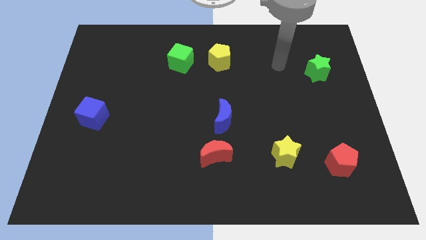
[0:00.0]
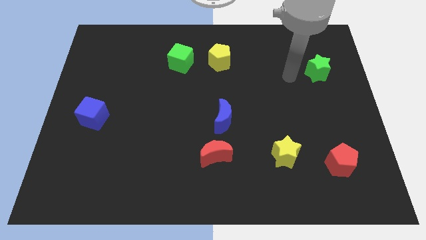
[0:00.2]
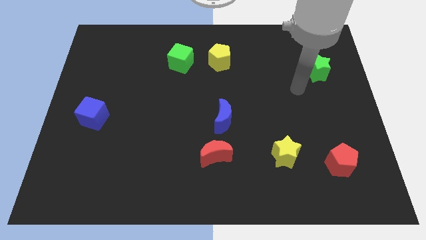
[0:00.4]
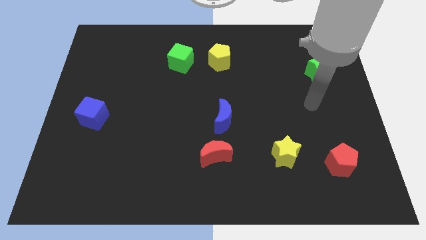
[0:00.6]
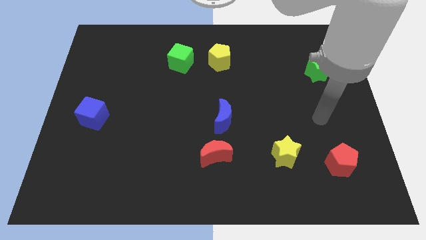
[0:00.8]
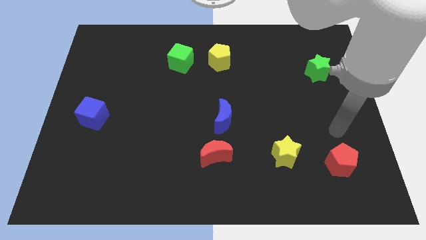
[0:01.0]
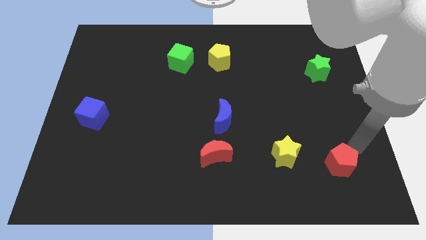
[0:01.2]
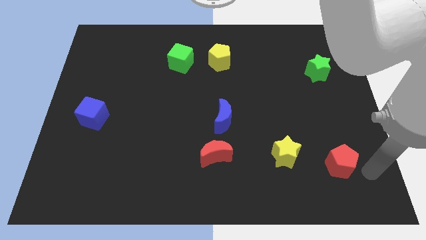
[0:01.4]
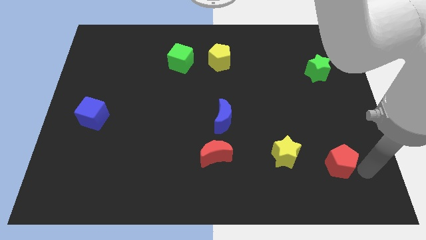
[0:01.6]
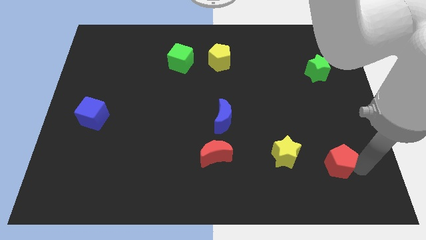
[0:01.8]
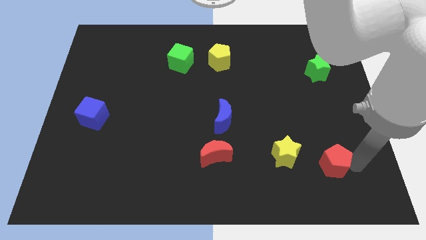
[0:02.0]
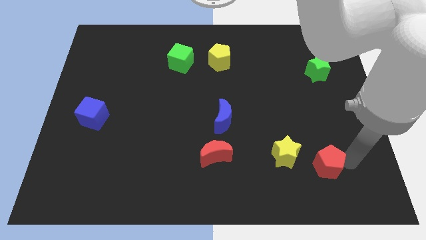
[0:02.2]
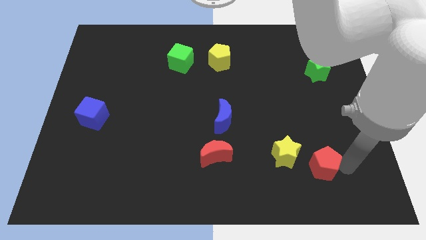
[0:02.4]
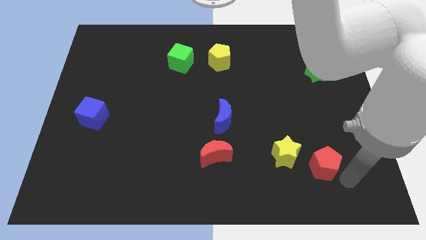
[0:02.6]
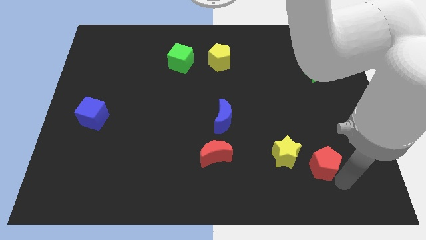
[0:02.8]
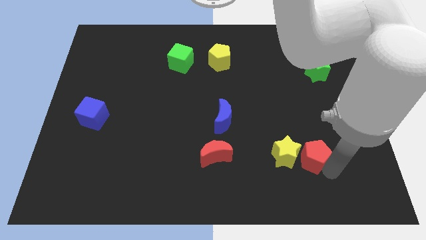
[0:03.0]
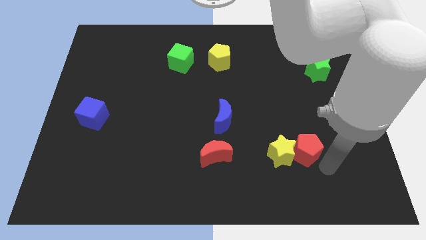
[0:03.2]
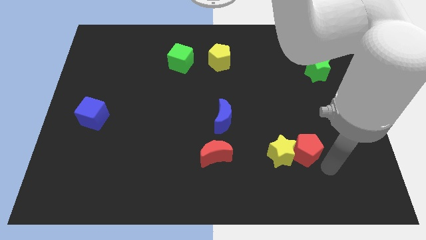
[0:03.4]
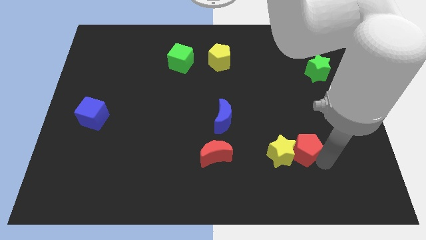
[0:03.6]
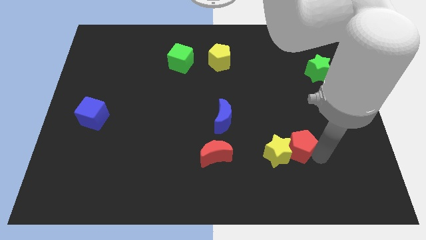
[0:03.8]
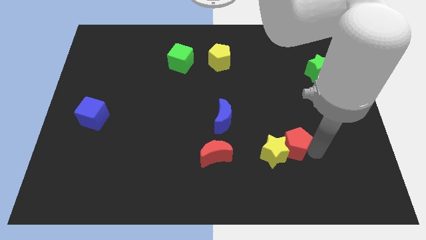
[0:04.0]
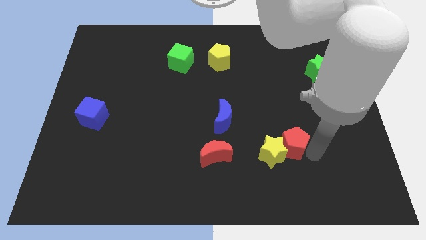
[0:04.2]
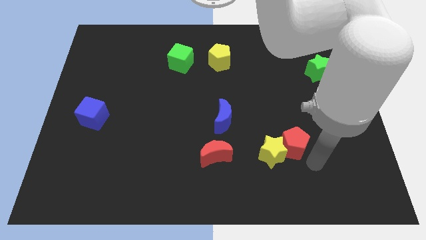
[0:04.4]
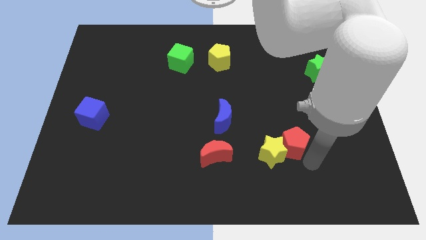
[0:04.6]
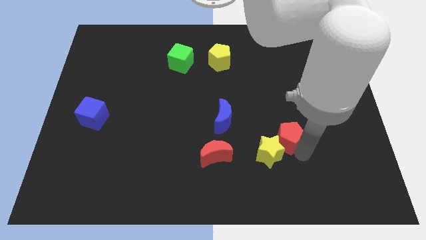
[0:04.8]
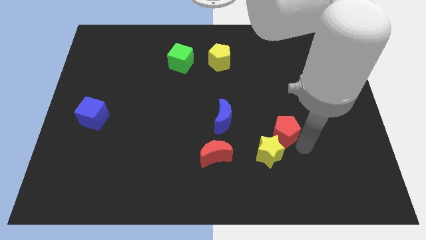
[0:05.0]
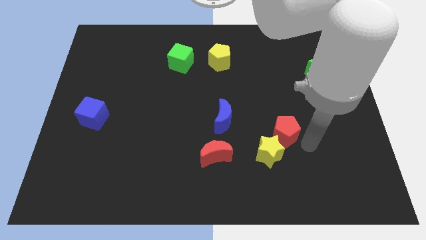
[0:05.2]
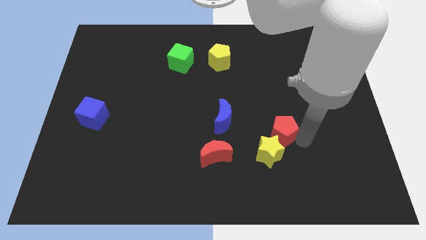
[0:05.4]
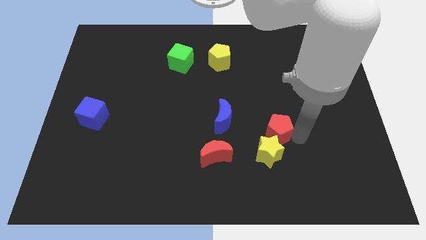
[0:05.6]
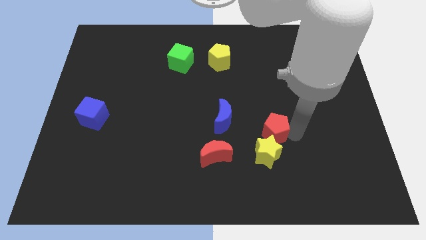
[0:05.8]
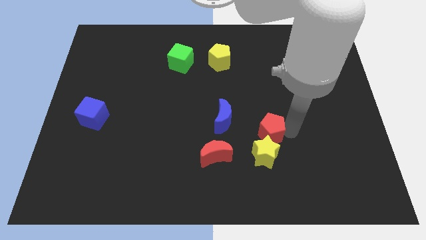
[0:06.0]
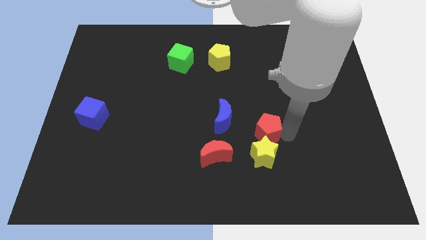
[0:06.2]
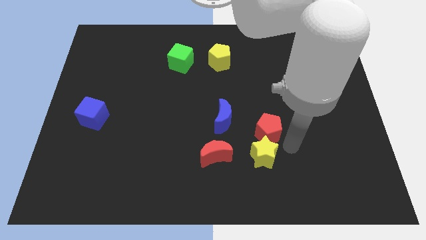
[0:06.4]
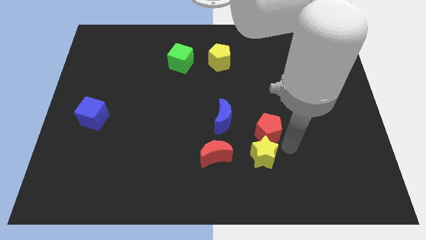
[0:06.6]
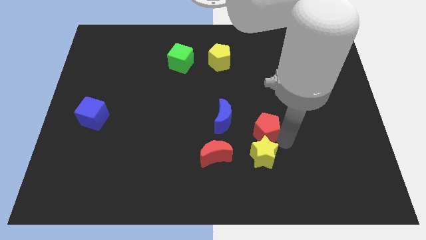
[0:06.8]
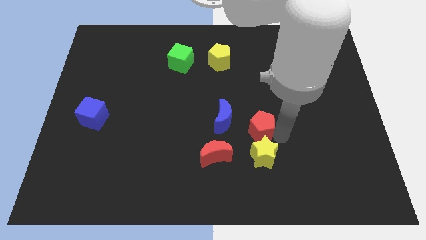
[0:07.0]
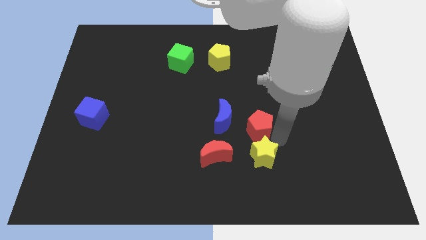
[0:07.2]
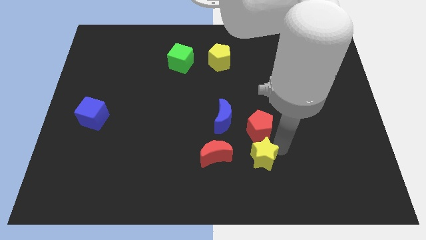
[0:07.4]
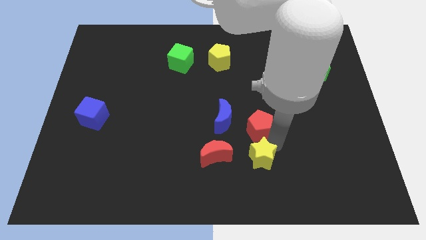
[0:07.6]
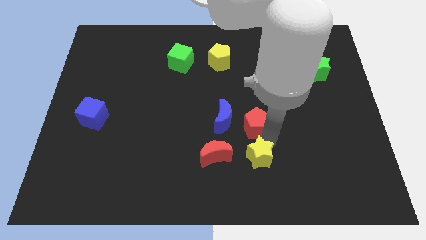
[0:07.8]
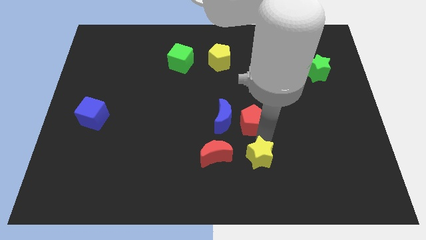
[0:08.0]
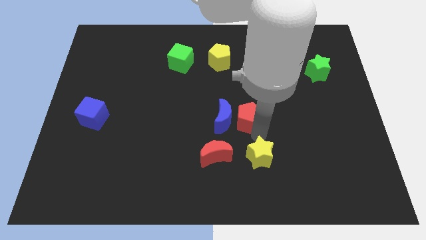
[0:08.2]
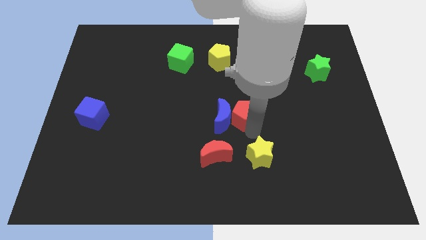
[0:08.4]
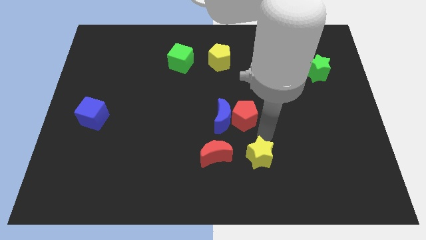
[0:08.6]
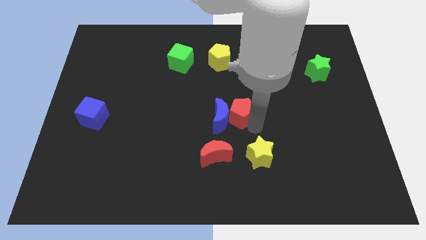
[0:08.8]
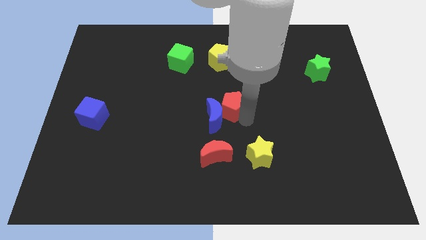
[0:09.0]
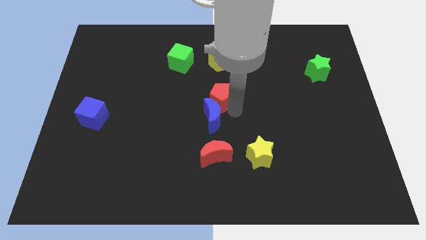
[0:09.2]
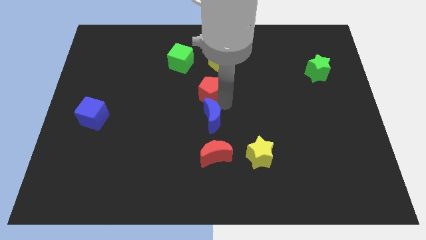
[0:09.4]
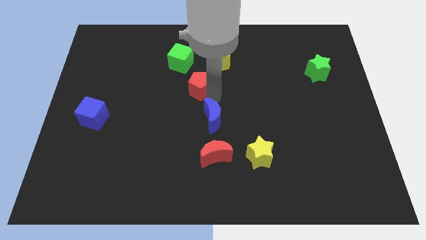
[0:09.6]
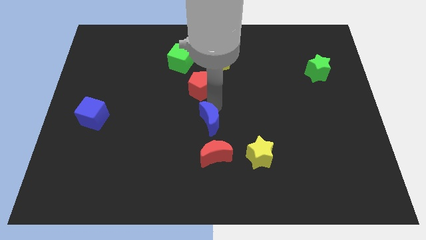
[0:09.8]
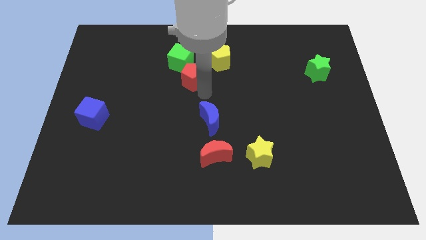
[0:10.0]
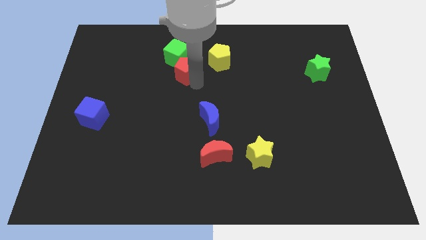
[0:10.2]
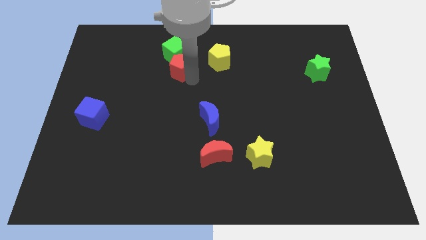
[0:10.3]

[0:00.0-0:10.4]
put the red pentagon close to the green cube

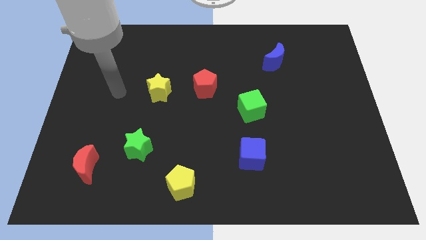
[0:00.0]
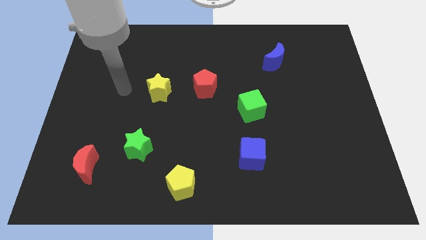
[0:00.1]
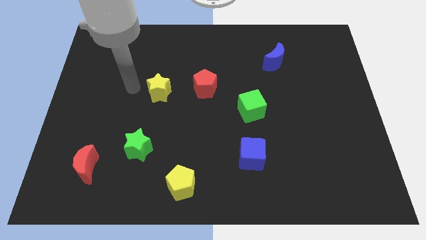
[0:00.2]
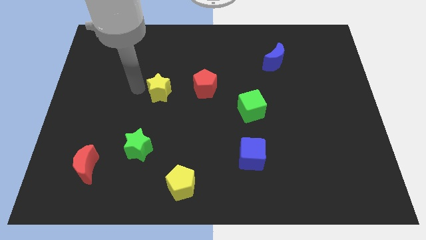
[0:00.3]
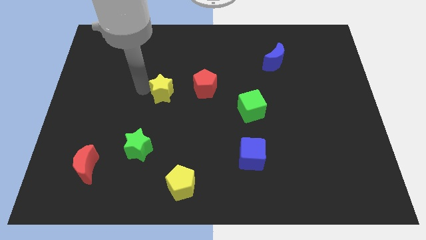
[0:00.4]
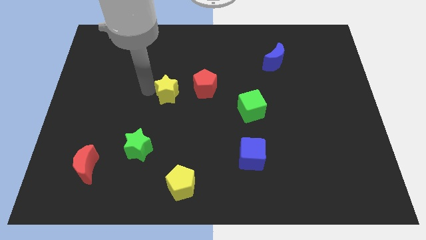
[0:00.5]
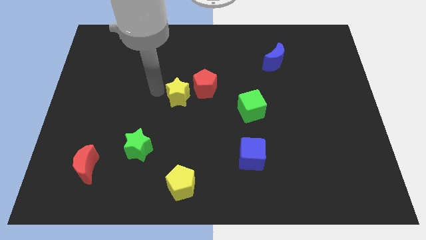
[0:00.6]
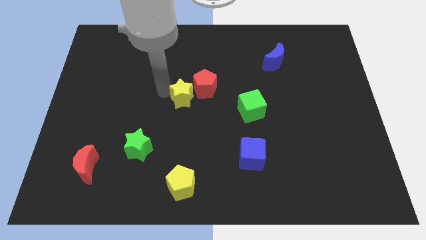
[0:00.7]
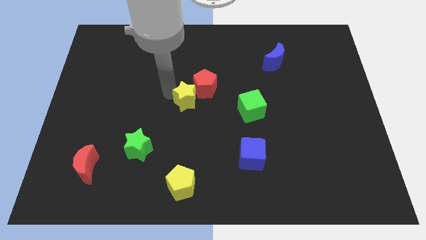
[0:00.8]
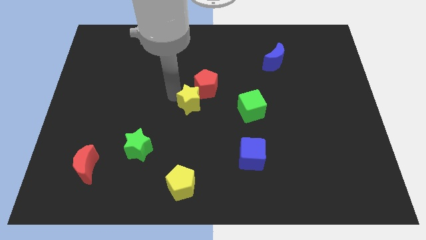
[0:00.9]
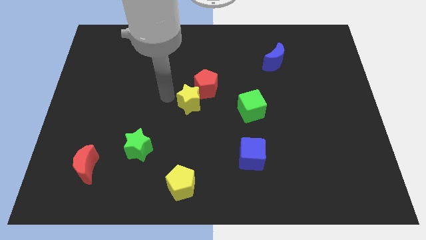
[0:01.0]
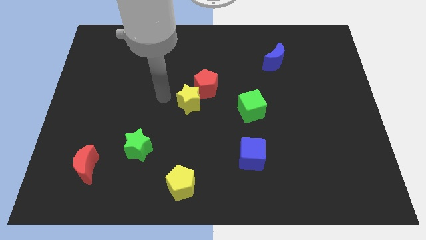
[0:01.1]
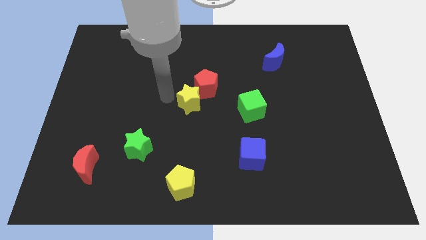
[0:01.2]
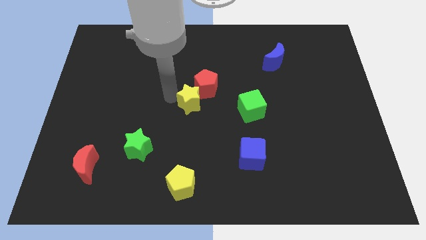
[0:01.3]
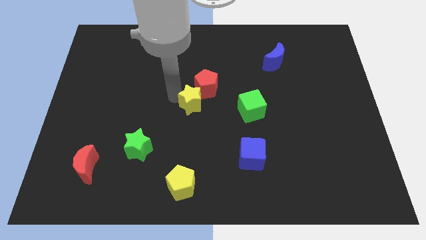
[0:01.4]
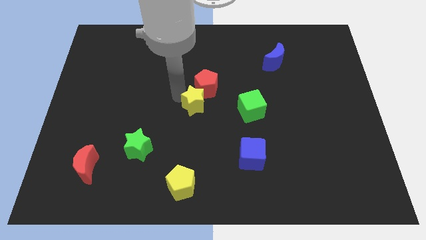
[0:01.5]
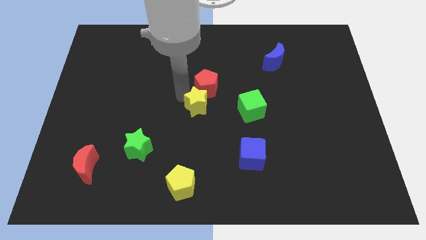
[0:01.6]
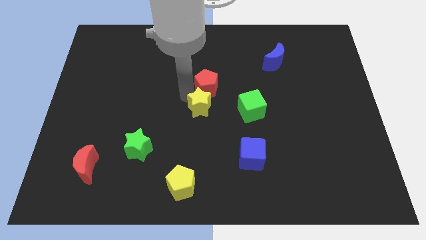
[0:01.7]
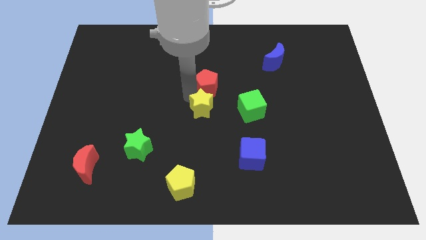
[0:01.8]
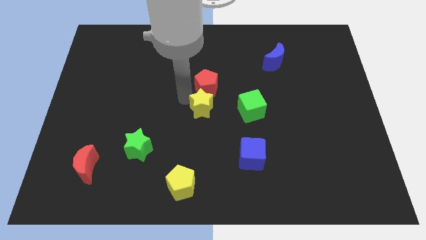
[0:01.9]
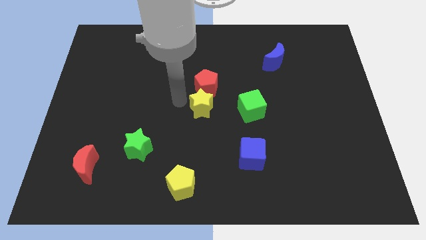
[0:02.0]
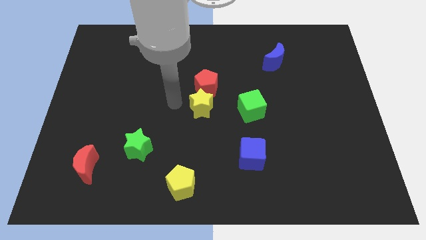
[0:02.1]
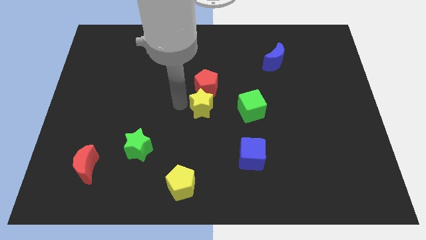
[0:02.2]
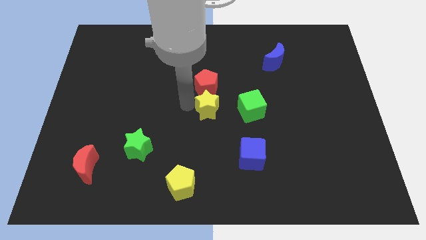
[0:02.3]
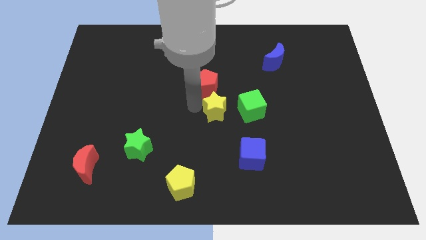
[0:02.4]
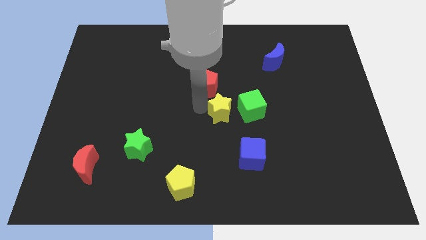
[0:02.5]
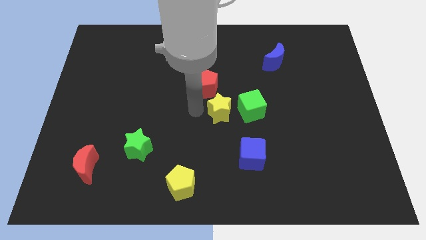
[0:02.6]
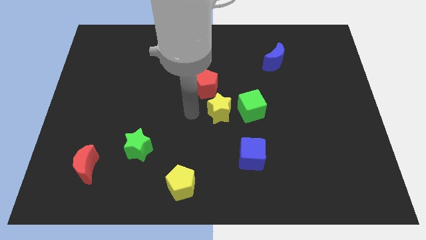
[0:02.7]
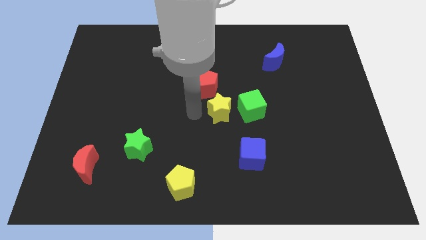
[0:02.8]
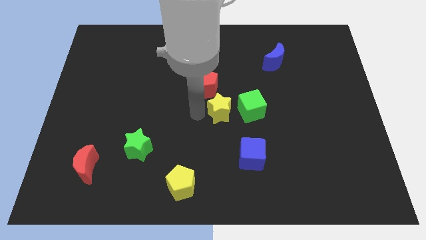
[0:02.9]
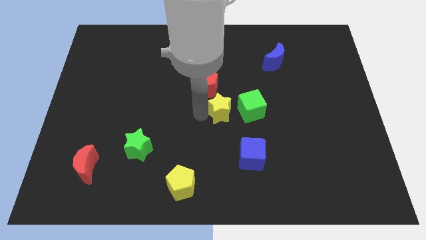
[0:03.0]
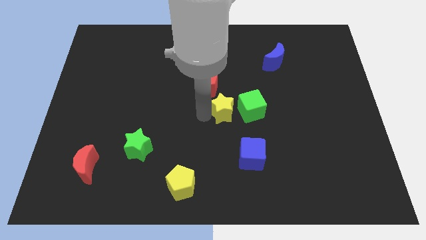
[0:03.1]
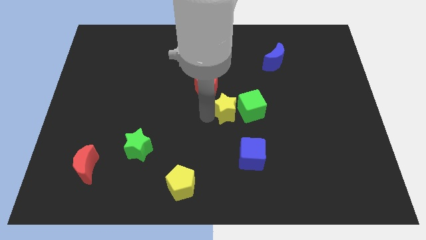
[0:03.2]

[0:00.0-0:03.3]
push the yellow star close to the green cube
